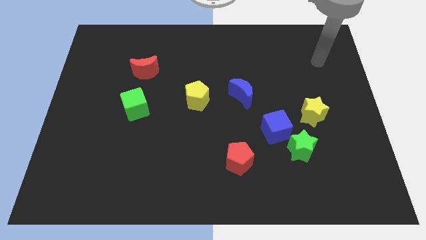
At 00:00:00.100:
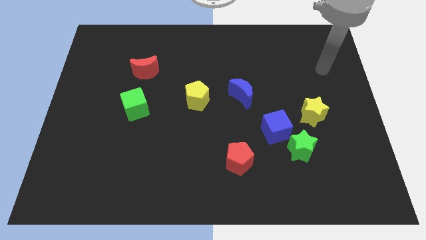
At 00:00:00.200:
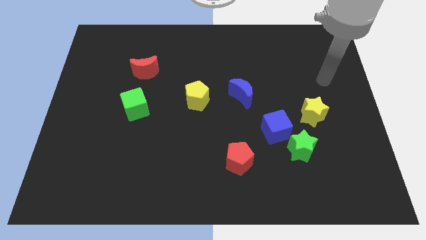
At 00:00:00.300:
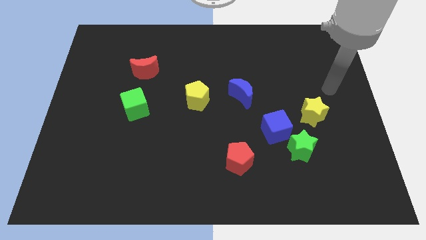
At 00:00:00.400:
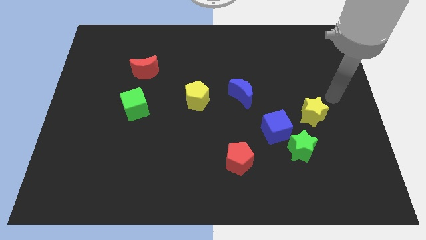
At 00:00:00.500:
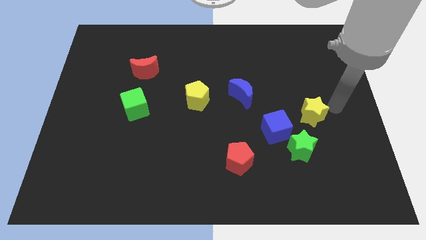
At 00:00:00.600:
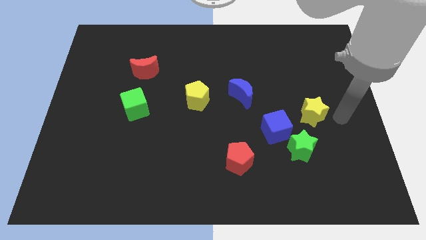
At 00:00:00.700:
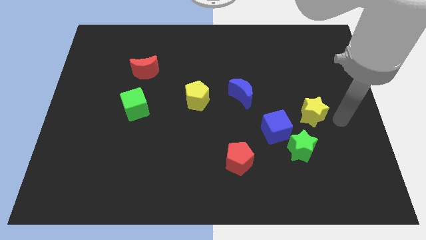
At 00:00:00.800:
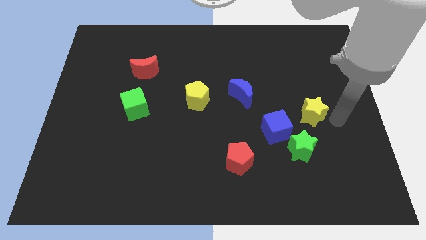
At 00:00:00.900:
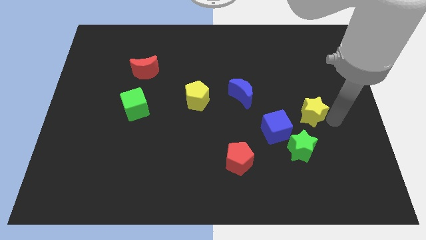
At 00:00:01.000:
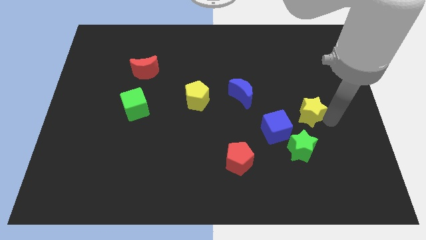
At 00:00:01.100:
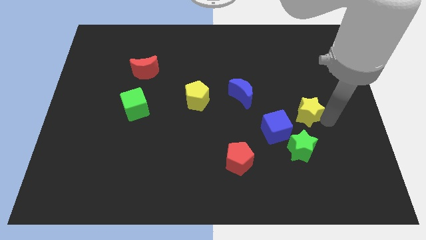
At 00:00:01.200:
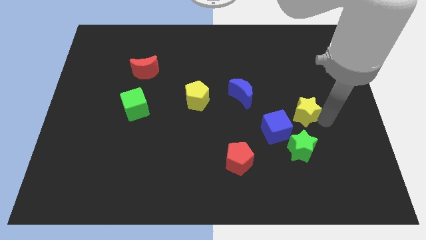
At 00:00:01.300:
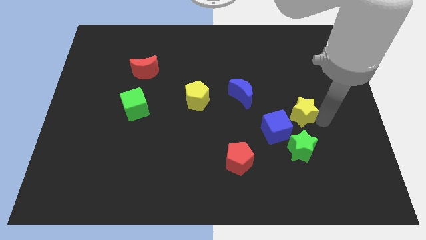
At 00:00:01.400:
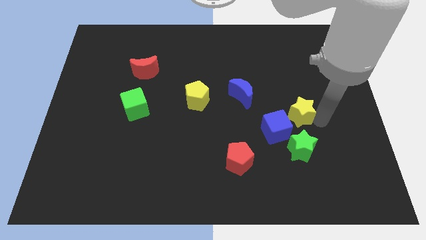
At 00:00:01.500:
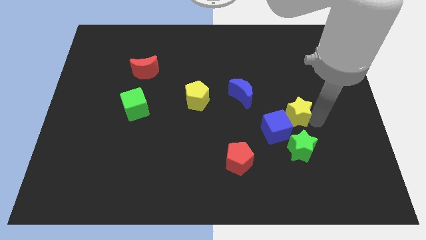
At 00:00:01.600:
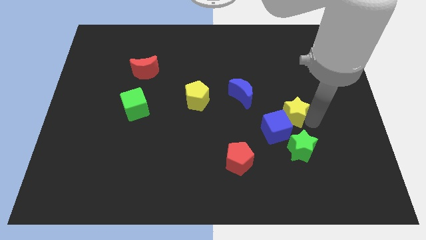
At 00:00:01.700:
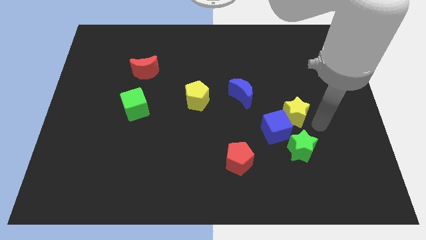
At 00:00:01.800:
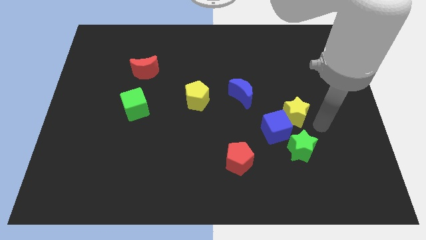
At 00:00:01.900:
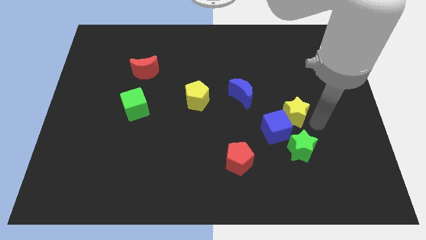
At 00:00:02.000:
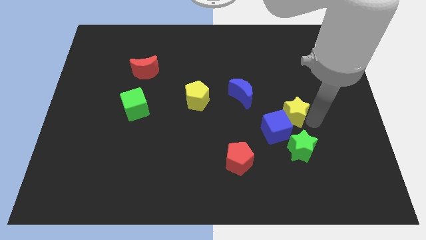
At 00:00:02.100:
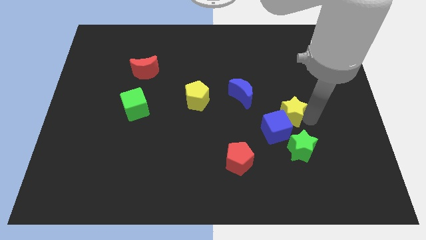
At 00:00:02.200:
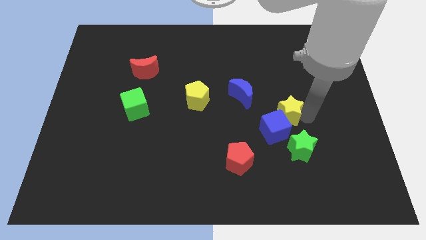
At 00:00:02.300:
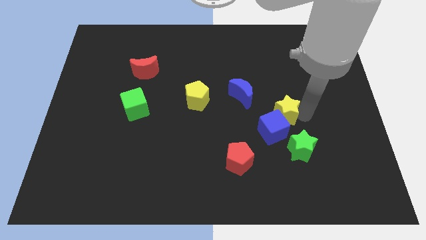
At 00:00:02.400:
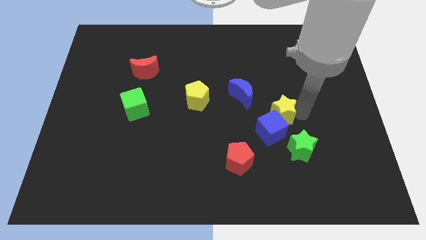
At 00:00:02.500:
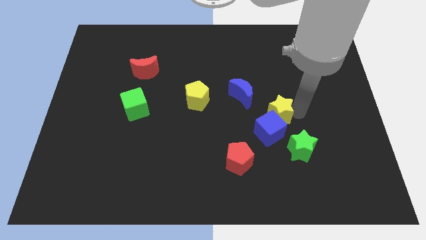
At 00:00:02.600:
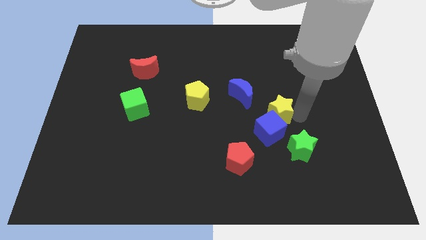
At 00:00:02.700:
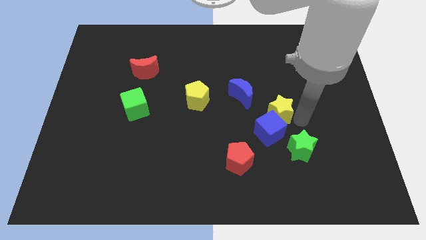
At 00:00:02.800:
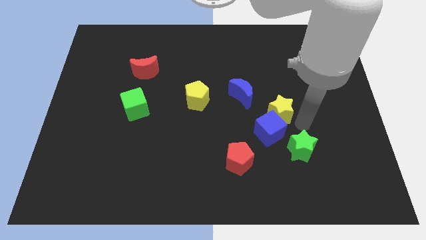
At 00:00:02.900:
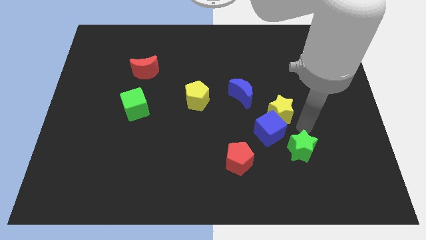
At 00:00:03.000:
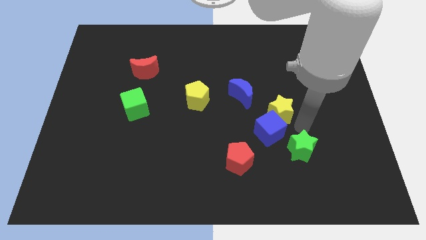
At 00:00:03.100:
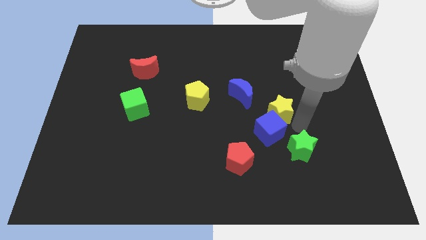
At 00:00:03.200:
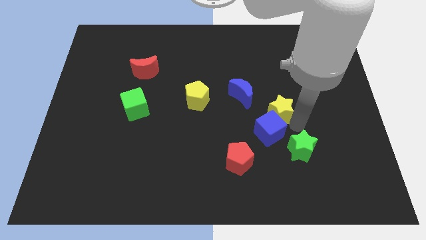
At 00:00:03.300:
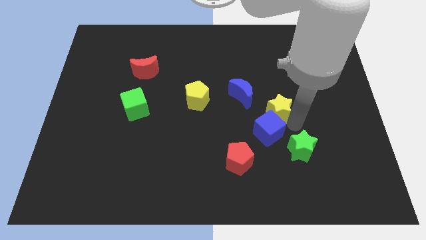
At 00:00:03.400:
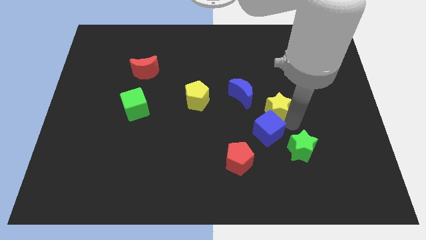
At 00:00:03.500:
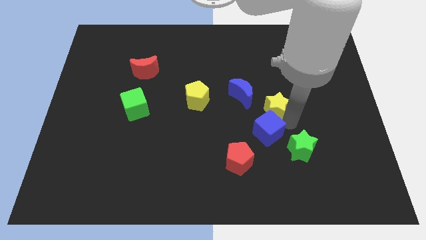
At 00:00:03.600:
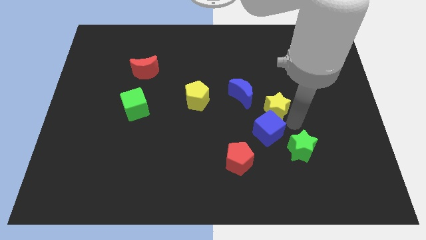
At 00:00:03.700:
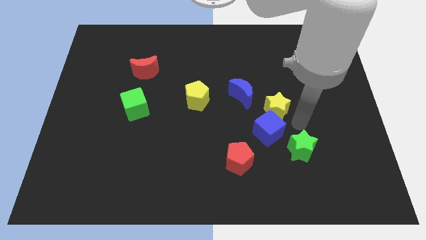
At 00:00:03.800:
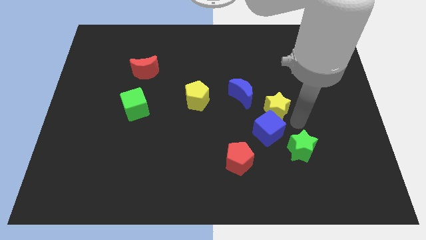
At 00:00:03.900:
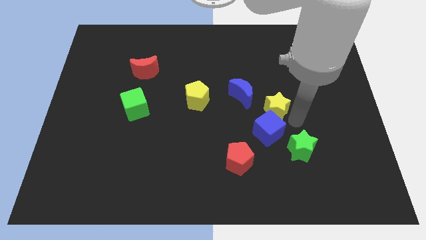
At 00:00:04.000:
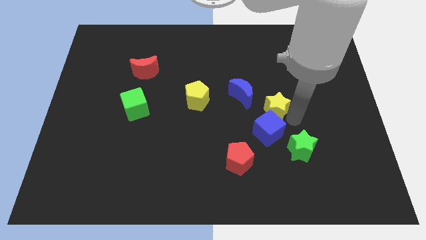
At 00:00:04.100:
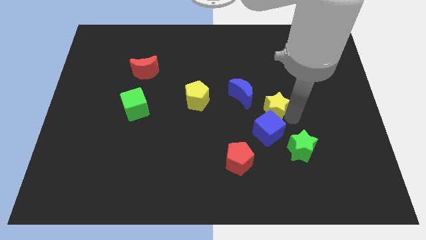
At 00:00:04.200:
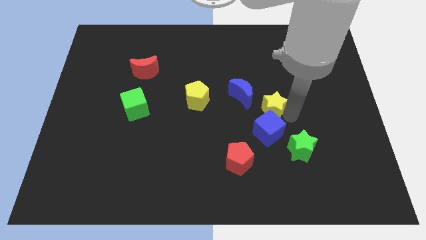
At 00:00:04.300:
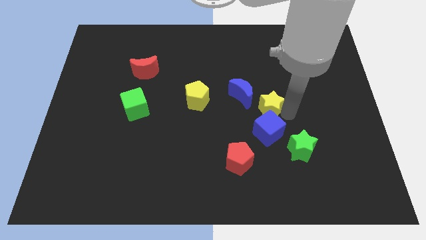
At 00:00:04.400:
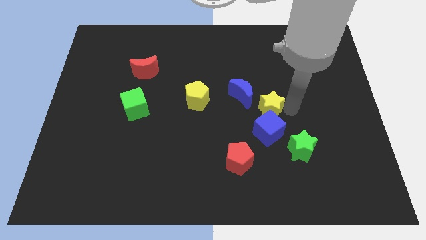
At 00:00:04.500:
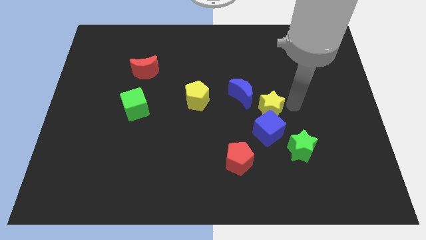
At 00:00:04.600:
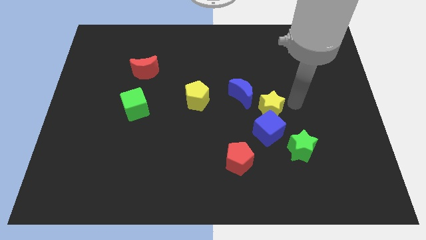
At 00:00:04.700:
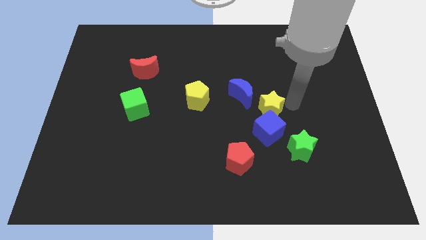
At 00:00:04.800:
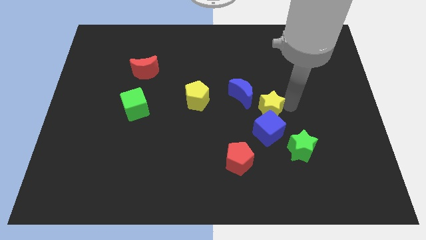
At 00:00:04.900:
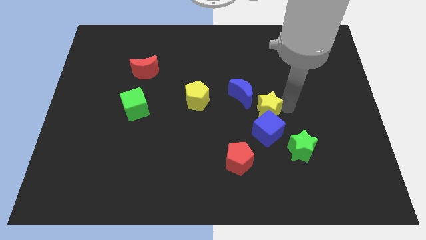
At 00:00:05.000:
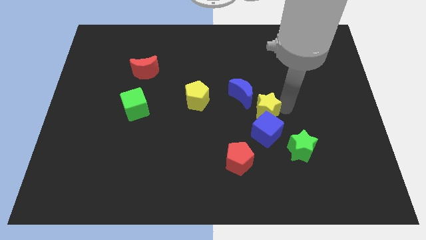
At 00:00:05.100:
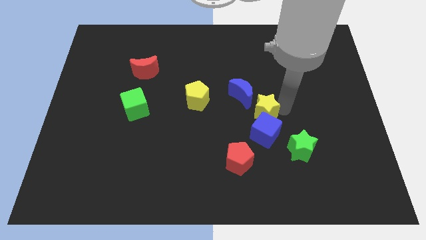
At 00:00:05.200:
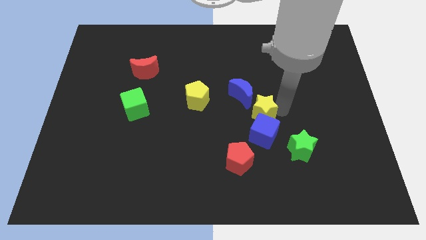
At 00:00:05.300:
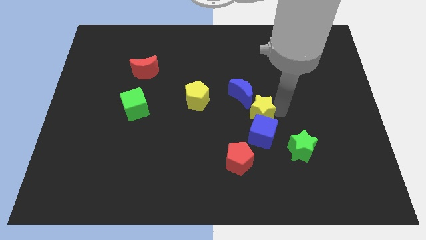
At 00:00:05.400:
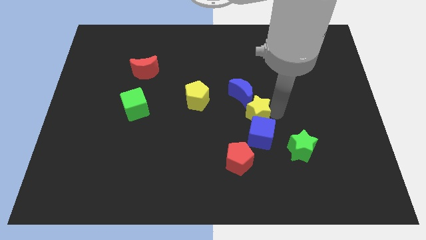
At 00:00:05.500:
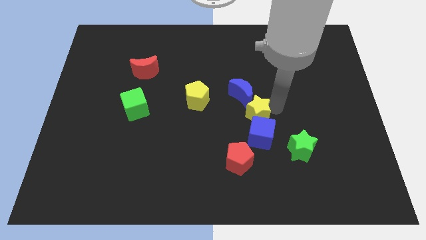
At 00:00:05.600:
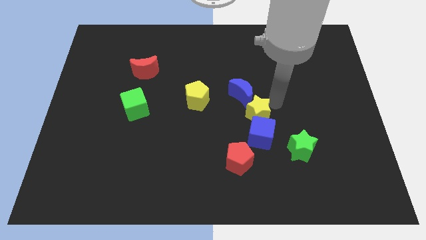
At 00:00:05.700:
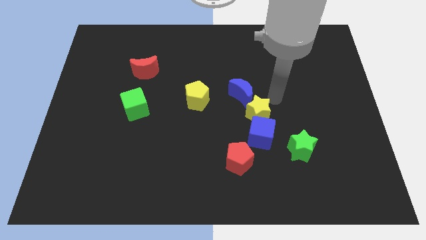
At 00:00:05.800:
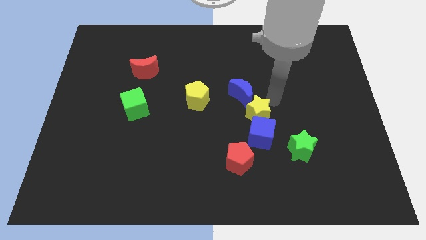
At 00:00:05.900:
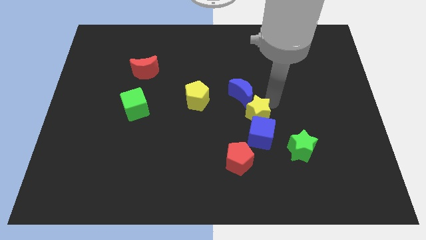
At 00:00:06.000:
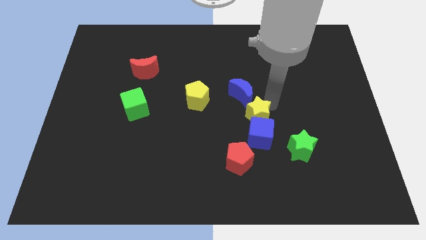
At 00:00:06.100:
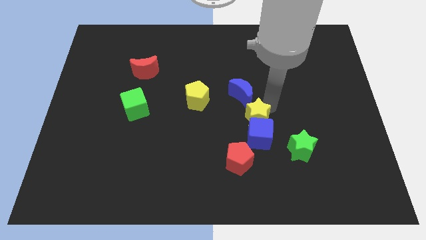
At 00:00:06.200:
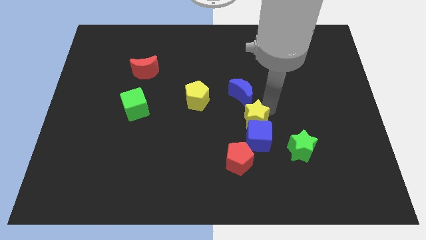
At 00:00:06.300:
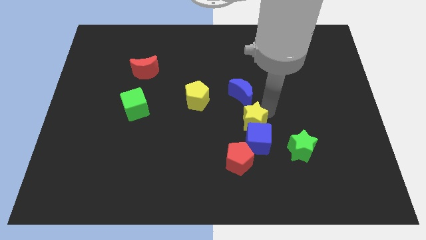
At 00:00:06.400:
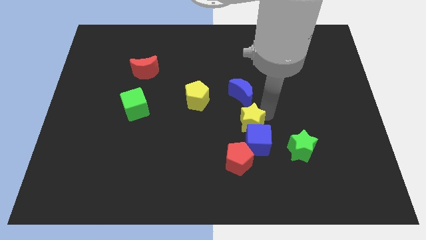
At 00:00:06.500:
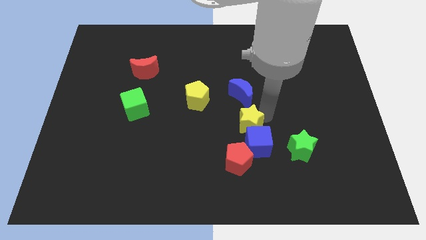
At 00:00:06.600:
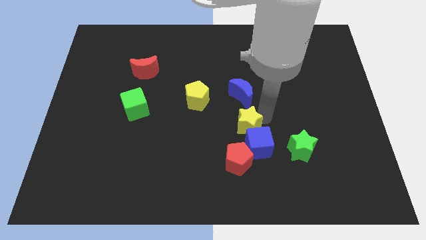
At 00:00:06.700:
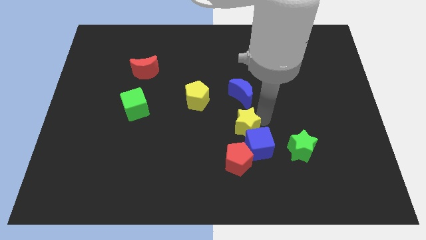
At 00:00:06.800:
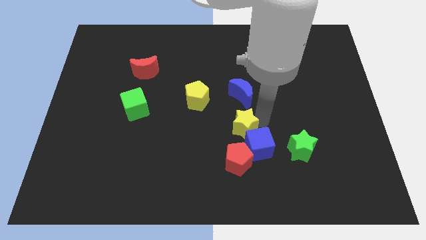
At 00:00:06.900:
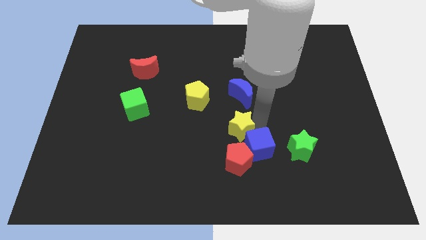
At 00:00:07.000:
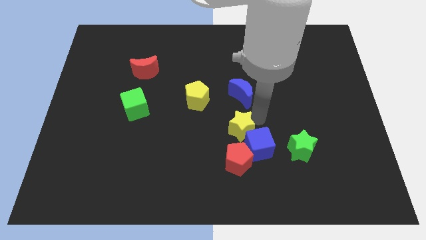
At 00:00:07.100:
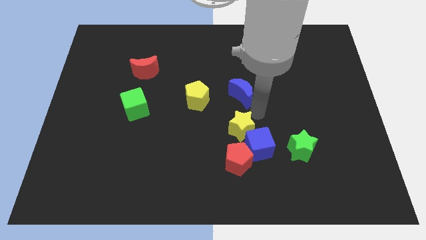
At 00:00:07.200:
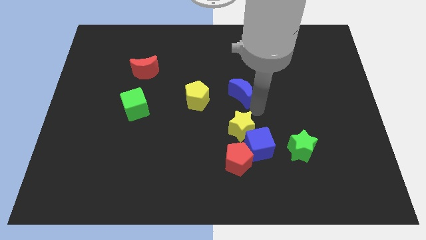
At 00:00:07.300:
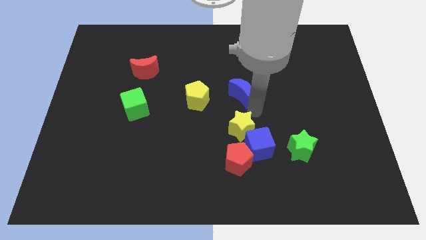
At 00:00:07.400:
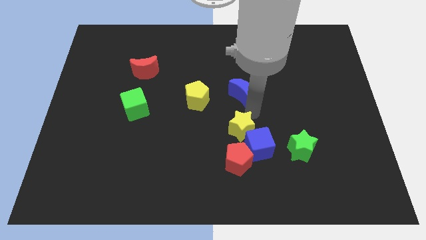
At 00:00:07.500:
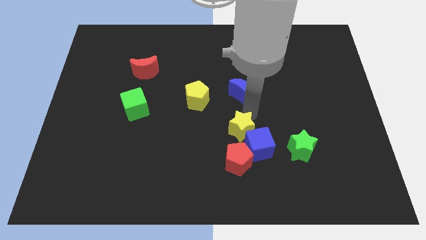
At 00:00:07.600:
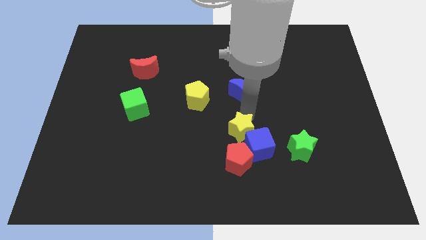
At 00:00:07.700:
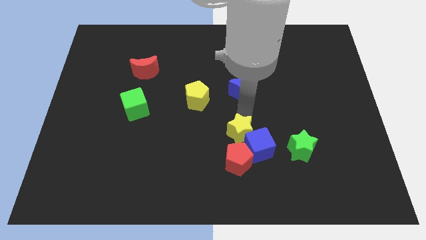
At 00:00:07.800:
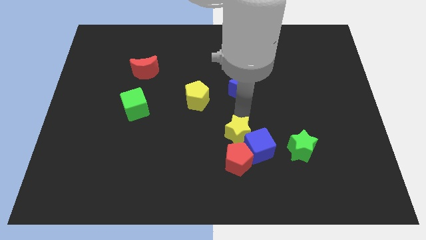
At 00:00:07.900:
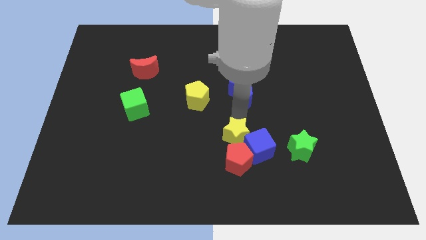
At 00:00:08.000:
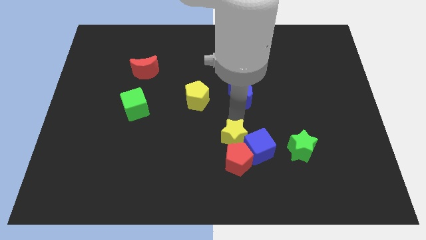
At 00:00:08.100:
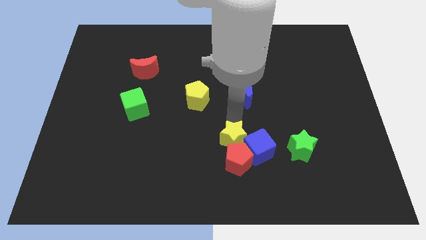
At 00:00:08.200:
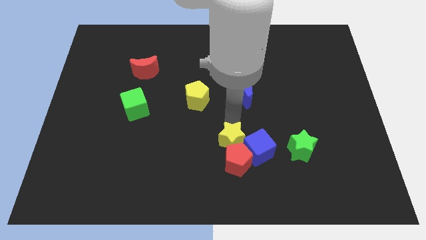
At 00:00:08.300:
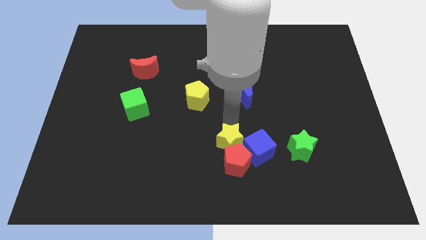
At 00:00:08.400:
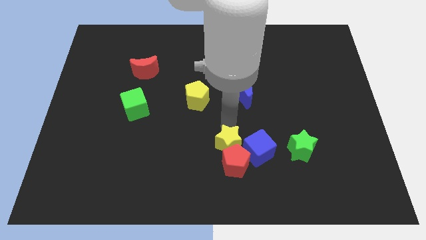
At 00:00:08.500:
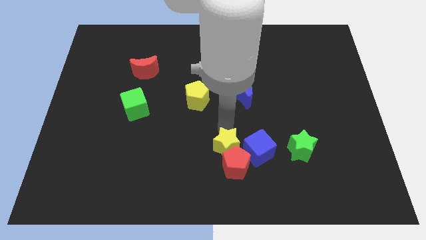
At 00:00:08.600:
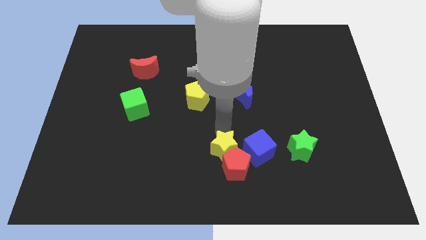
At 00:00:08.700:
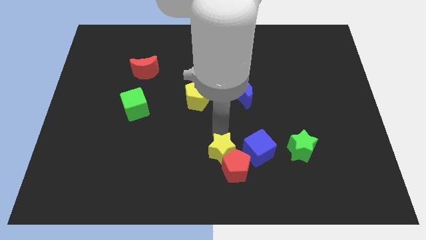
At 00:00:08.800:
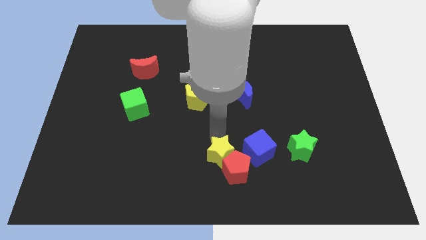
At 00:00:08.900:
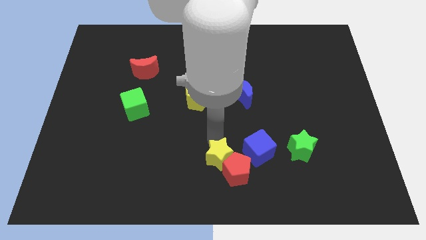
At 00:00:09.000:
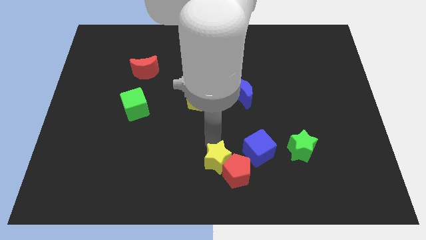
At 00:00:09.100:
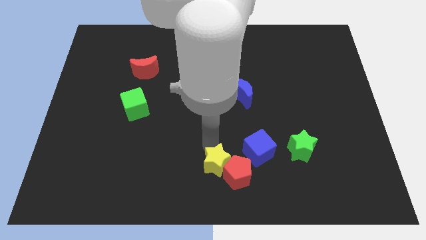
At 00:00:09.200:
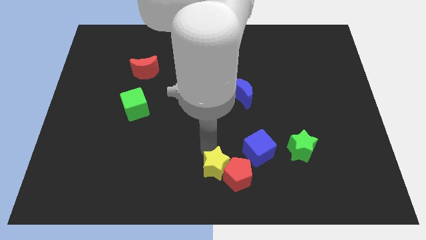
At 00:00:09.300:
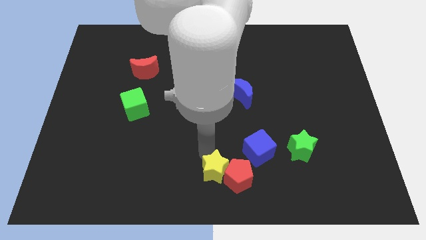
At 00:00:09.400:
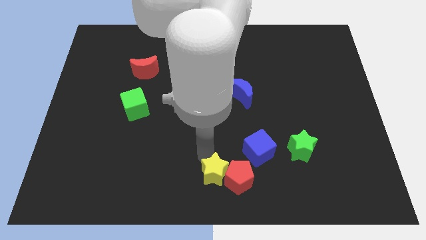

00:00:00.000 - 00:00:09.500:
move the yellow star to the bottom left side of the red pentagon
